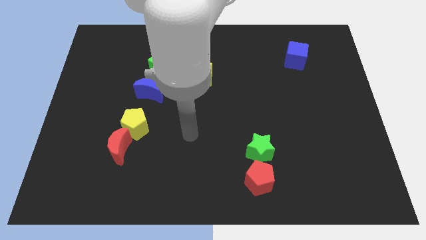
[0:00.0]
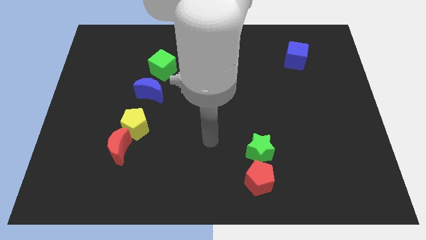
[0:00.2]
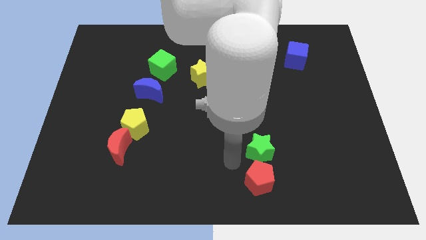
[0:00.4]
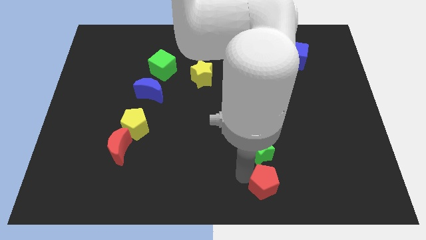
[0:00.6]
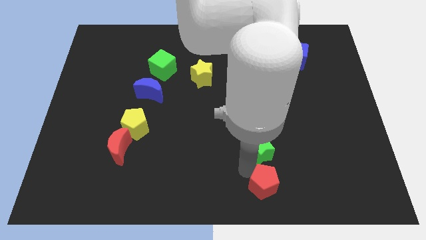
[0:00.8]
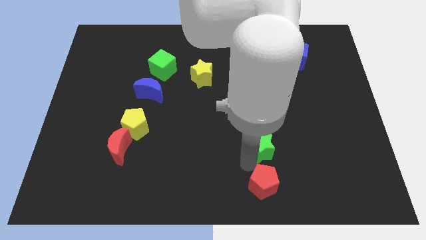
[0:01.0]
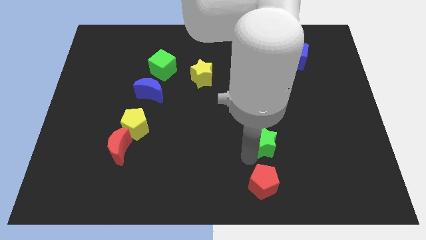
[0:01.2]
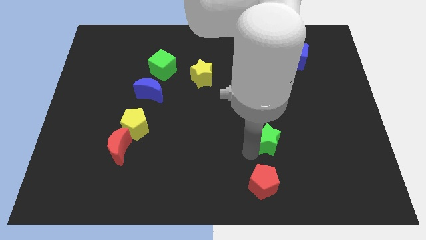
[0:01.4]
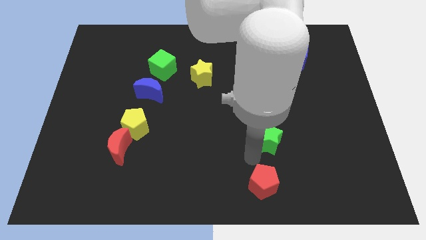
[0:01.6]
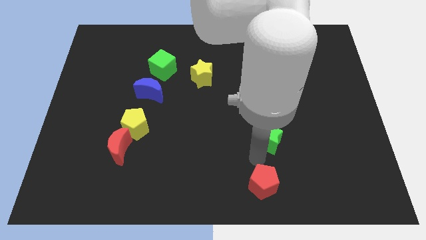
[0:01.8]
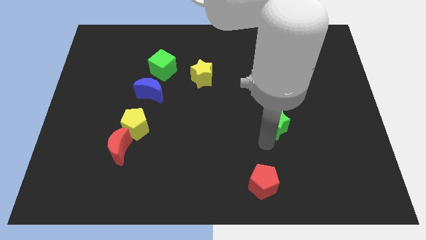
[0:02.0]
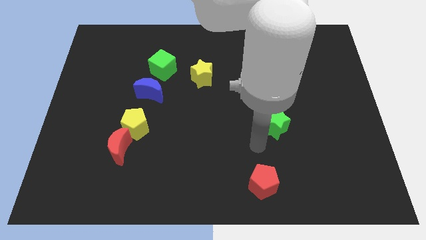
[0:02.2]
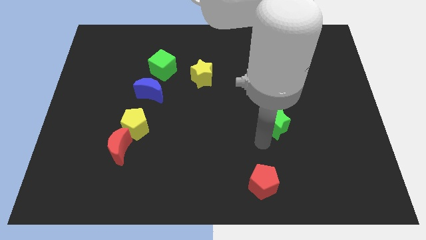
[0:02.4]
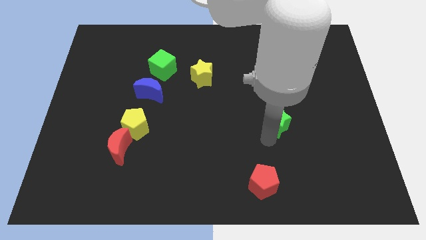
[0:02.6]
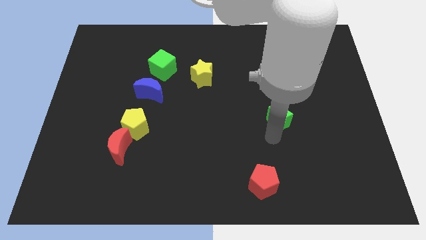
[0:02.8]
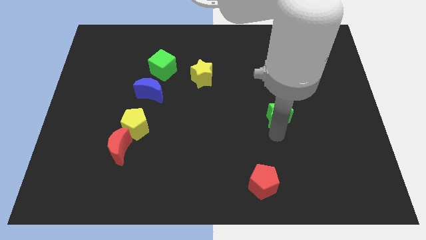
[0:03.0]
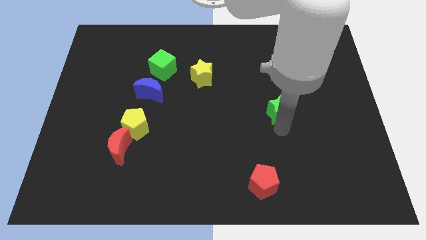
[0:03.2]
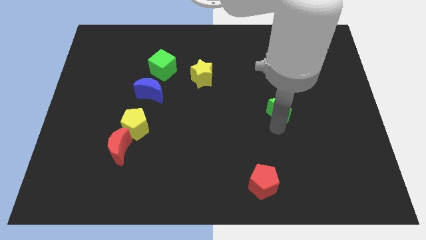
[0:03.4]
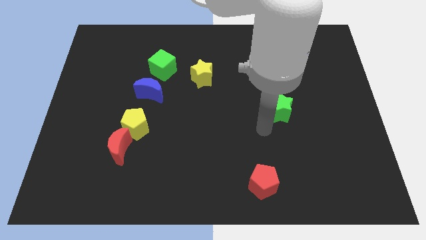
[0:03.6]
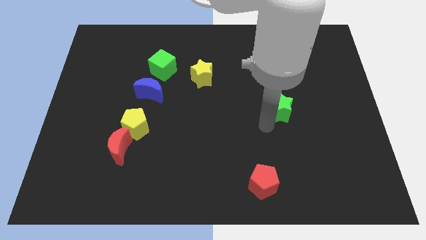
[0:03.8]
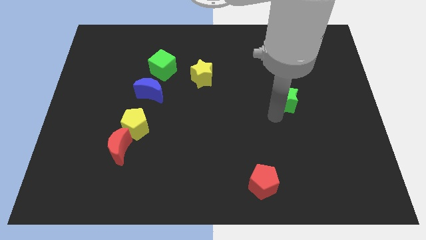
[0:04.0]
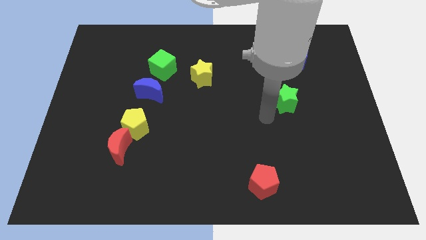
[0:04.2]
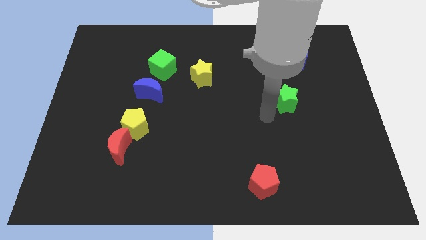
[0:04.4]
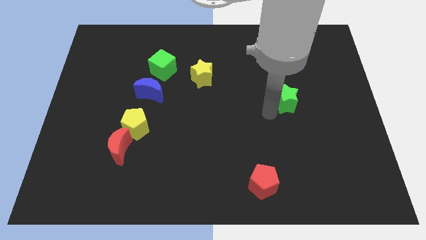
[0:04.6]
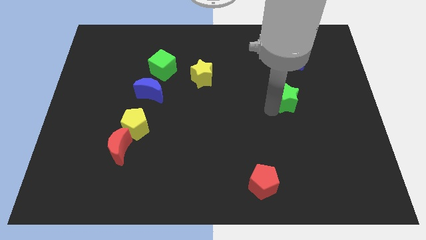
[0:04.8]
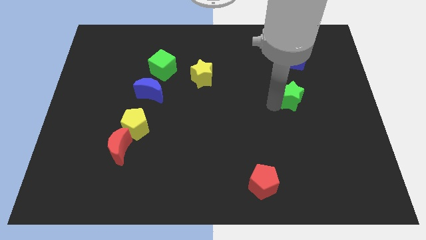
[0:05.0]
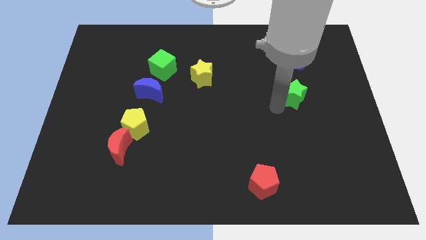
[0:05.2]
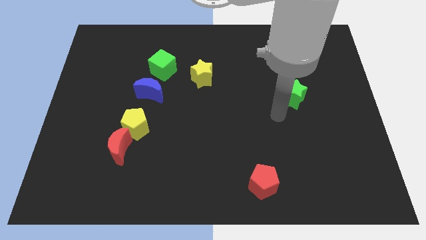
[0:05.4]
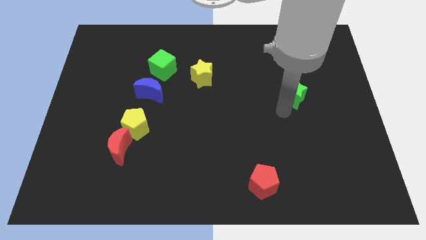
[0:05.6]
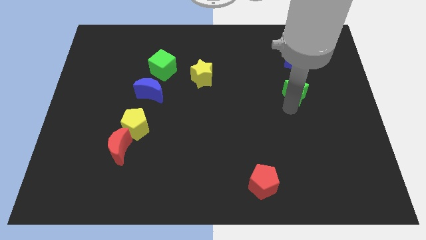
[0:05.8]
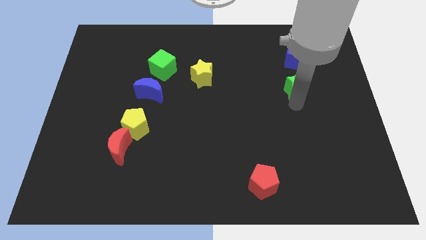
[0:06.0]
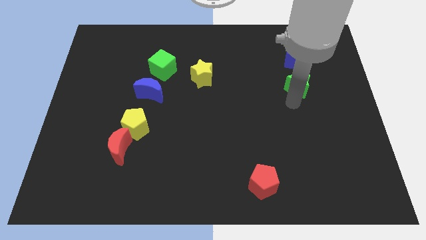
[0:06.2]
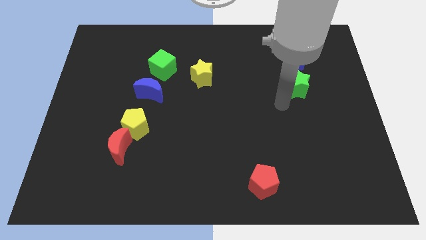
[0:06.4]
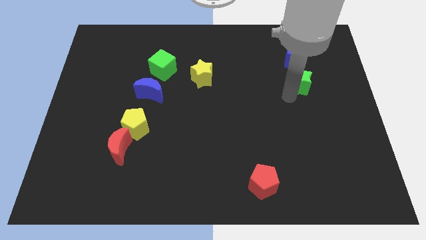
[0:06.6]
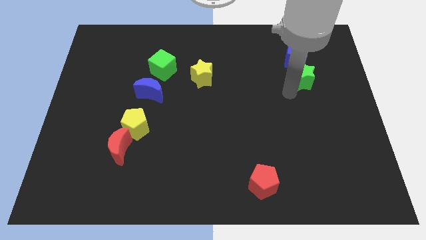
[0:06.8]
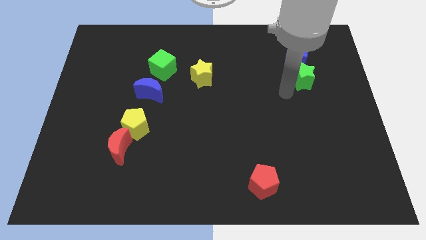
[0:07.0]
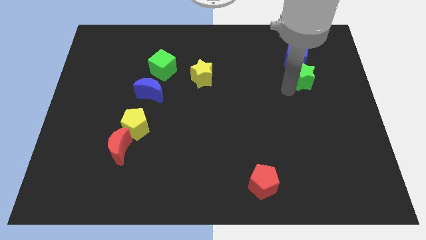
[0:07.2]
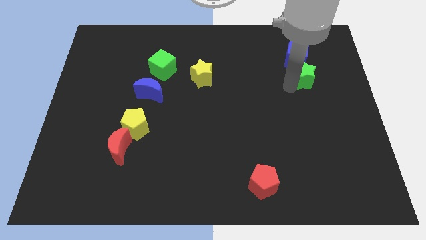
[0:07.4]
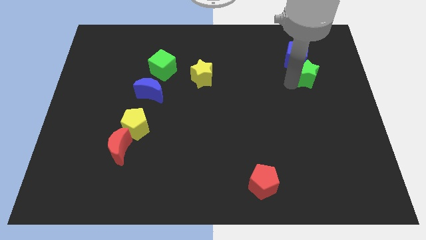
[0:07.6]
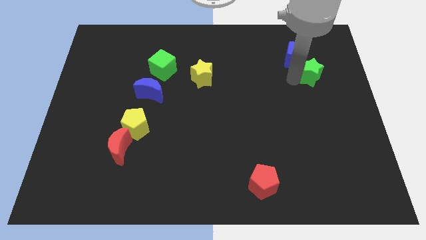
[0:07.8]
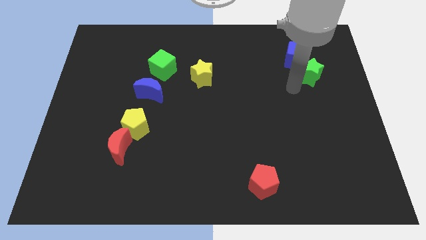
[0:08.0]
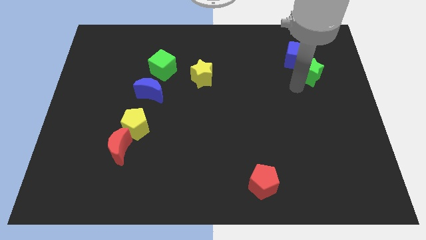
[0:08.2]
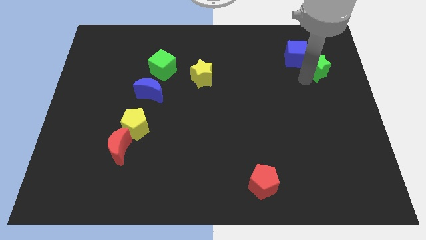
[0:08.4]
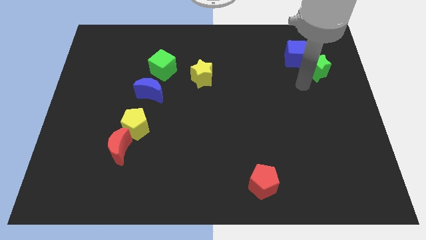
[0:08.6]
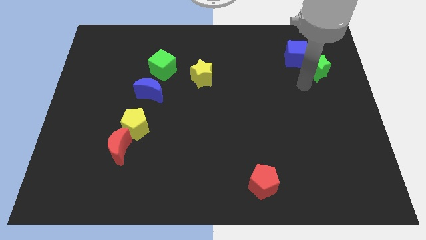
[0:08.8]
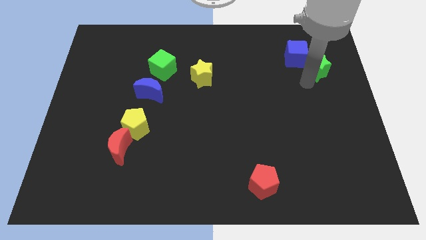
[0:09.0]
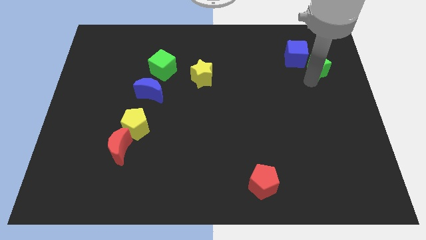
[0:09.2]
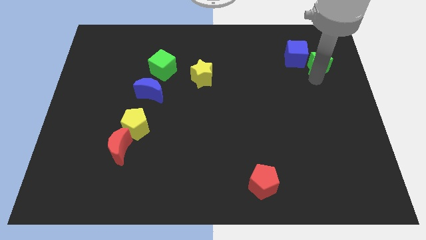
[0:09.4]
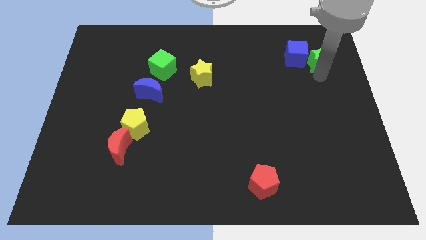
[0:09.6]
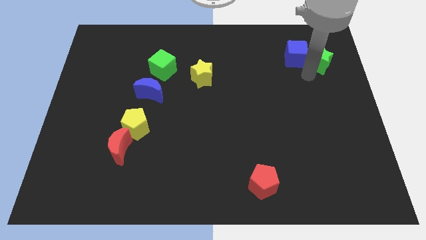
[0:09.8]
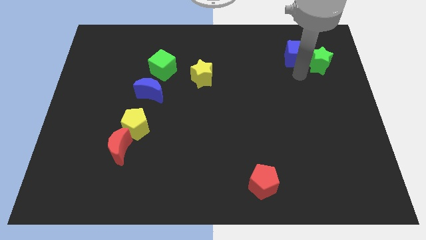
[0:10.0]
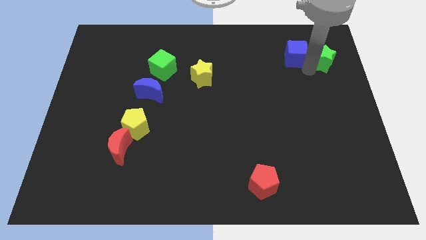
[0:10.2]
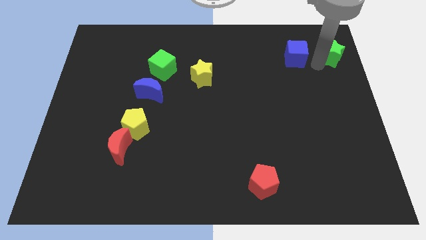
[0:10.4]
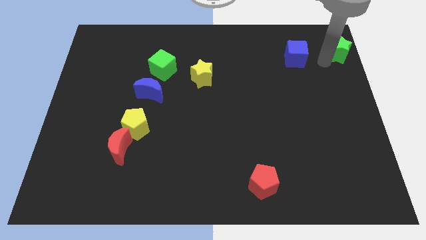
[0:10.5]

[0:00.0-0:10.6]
put the green star to the top right of the board

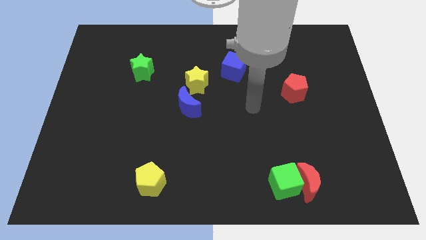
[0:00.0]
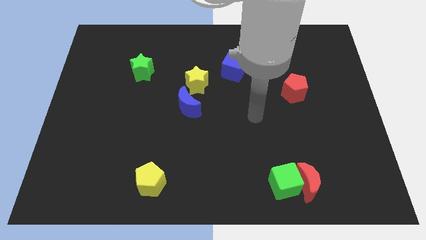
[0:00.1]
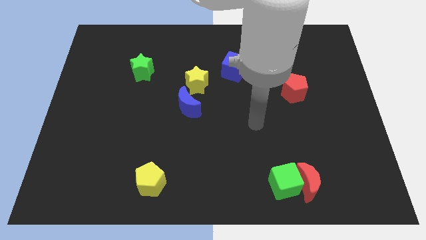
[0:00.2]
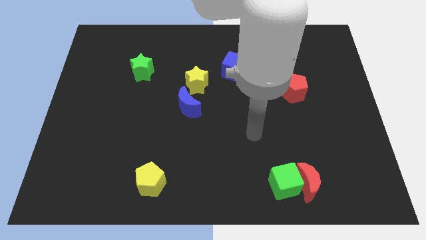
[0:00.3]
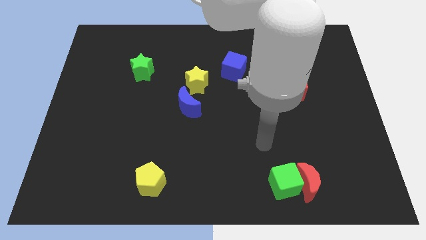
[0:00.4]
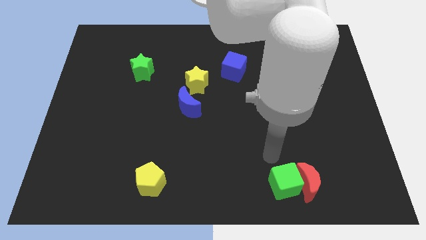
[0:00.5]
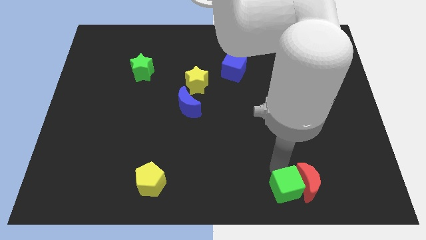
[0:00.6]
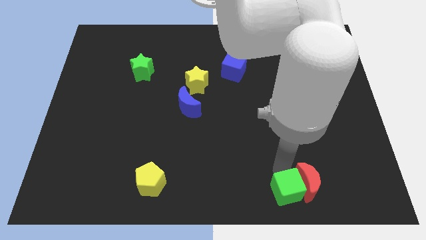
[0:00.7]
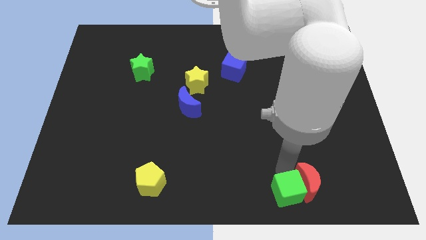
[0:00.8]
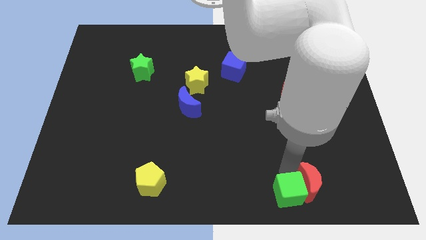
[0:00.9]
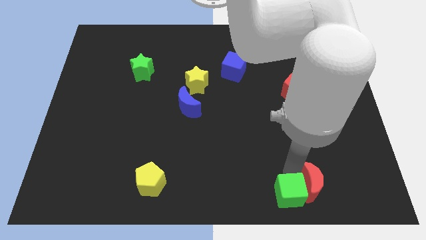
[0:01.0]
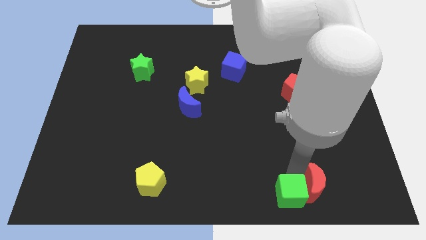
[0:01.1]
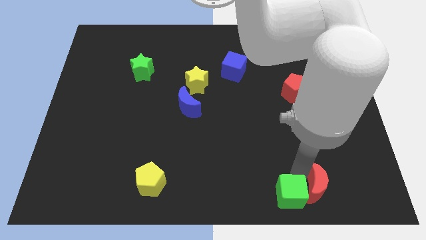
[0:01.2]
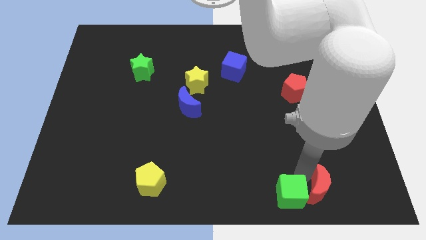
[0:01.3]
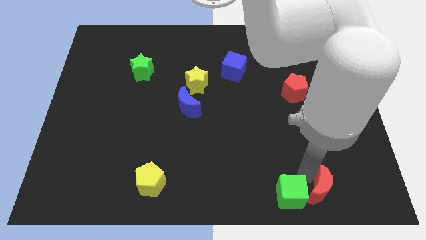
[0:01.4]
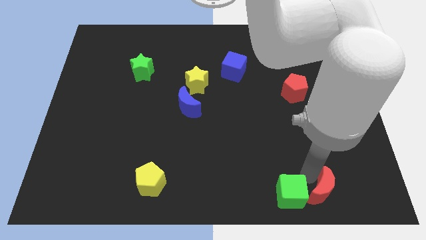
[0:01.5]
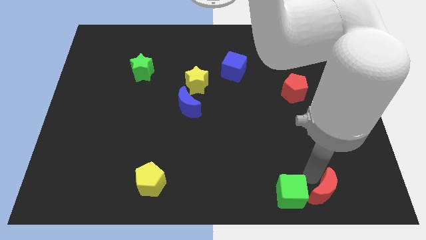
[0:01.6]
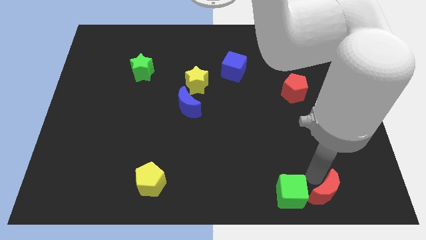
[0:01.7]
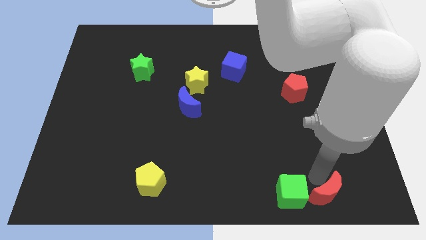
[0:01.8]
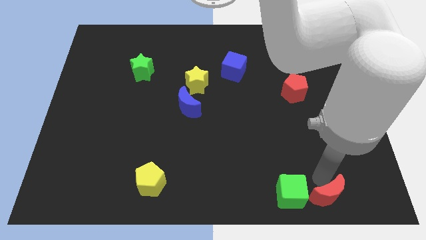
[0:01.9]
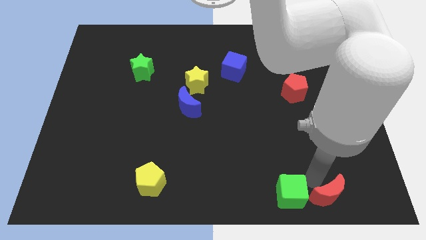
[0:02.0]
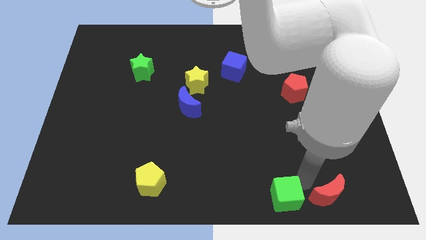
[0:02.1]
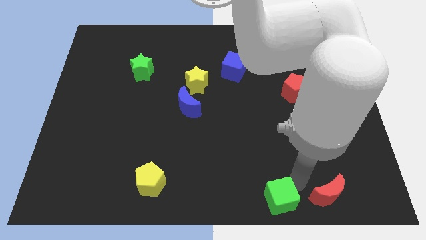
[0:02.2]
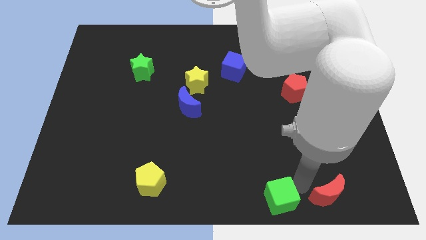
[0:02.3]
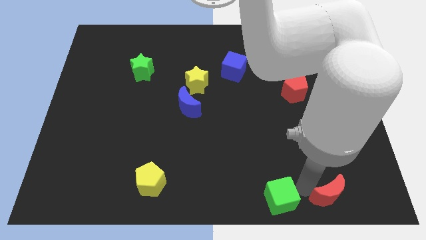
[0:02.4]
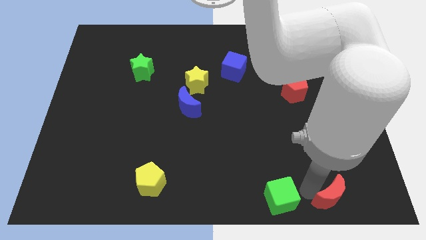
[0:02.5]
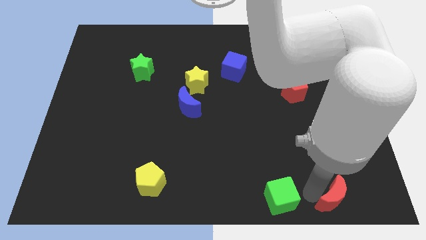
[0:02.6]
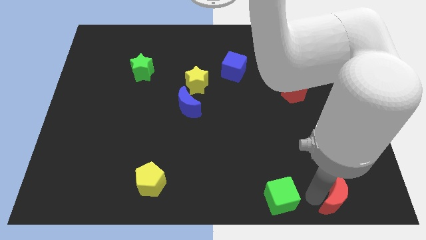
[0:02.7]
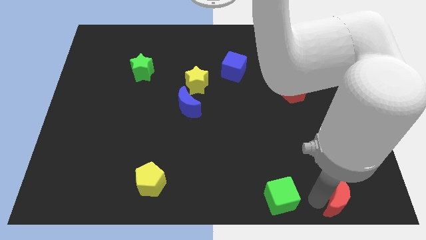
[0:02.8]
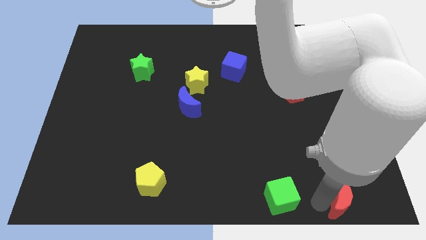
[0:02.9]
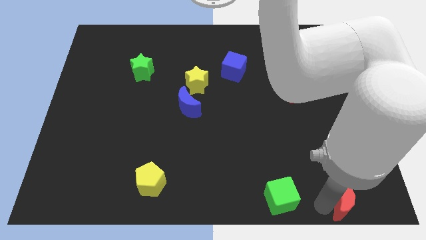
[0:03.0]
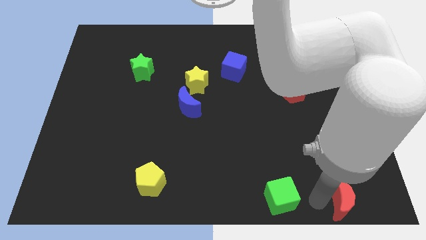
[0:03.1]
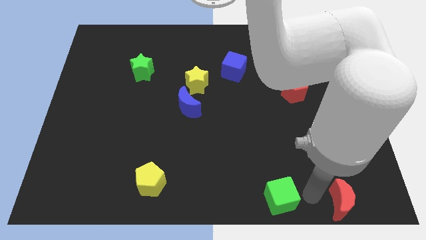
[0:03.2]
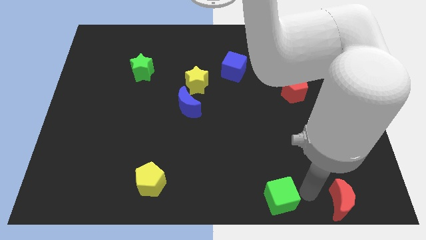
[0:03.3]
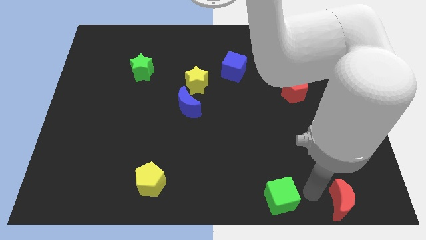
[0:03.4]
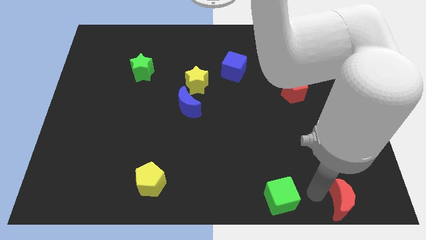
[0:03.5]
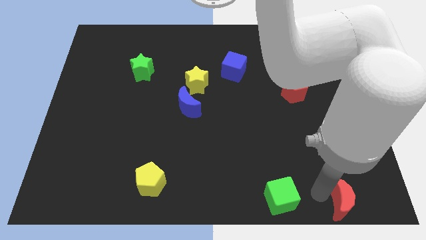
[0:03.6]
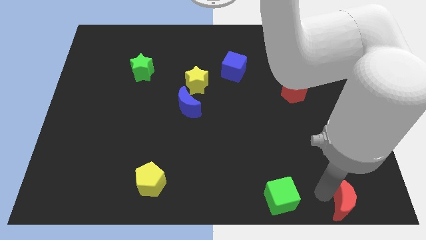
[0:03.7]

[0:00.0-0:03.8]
put the red moon to the bottom right
